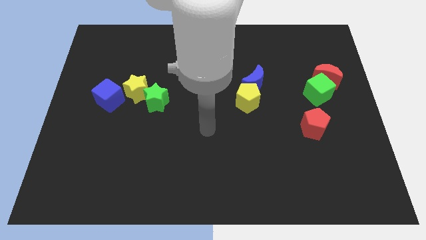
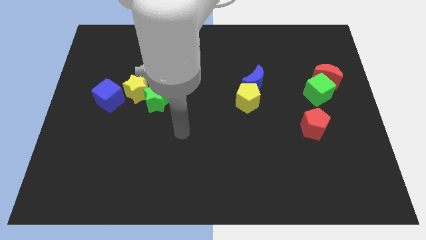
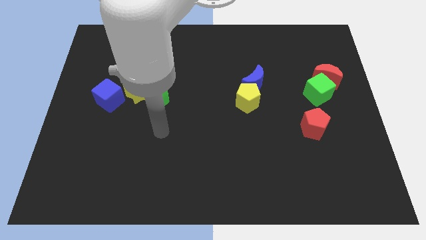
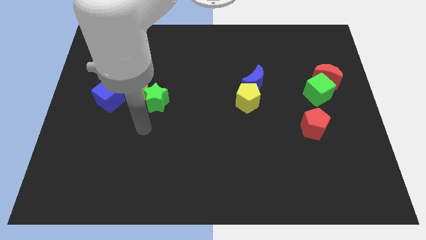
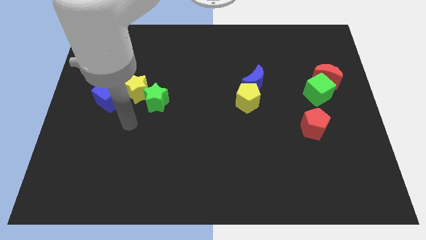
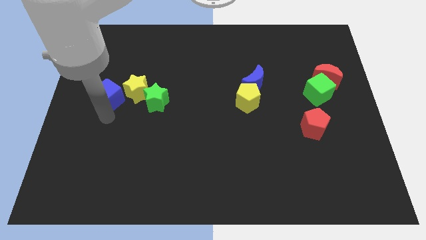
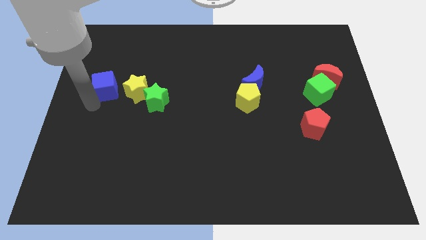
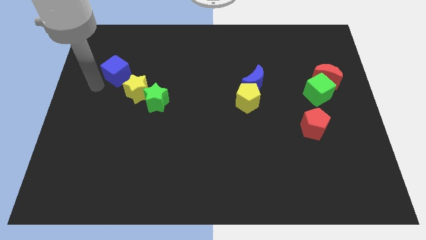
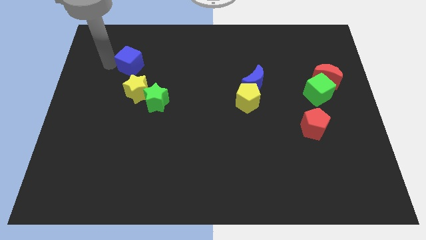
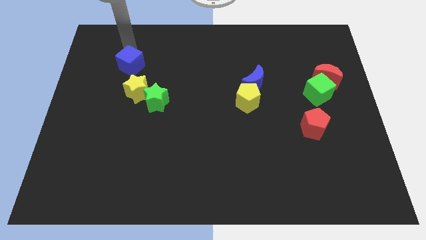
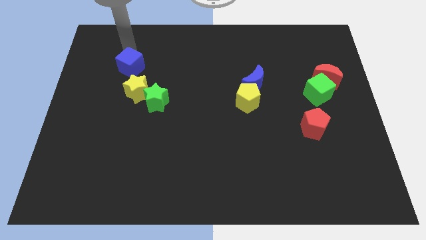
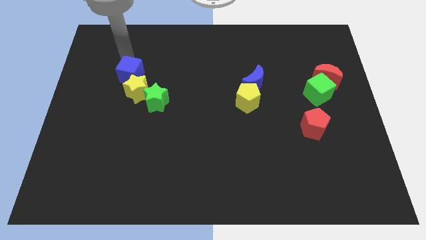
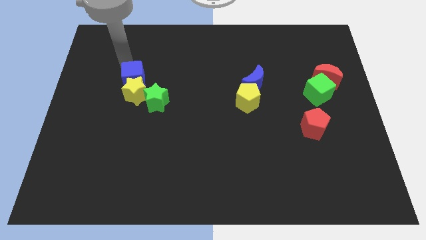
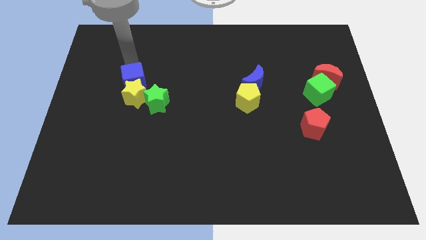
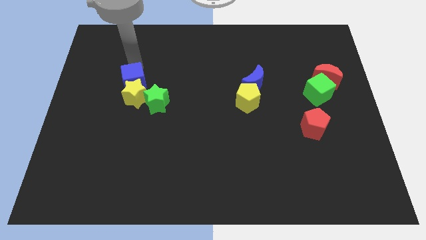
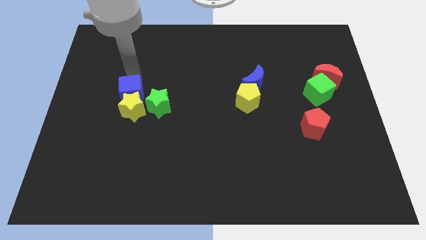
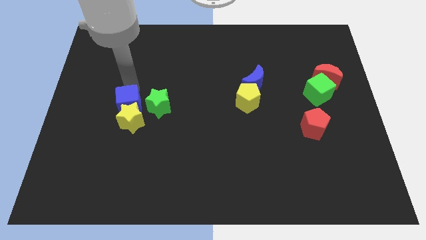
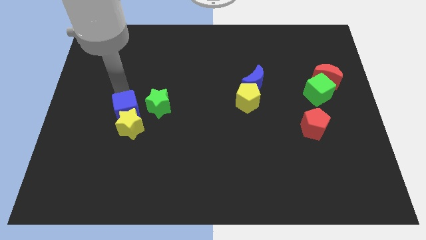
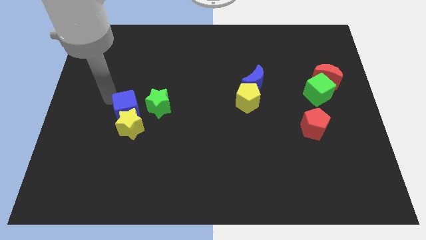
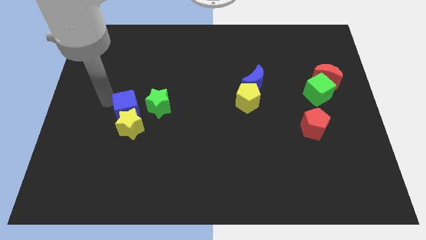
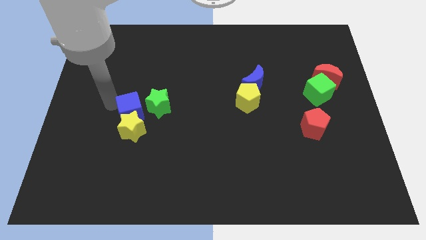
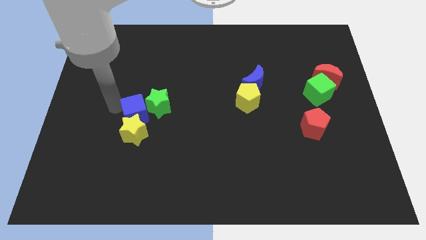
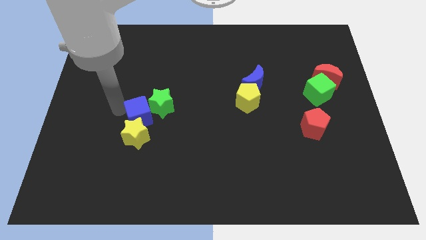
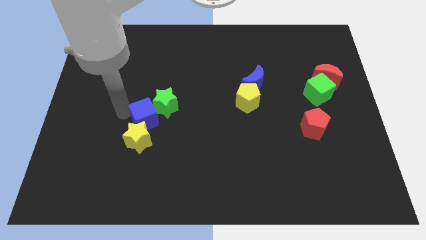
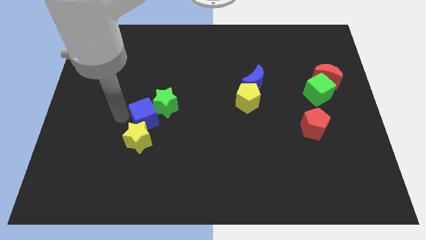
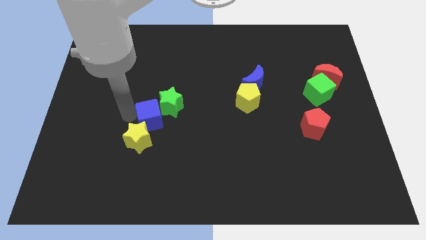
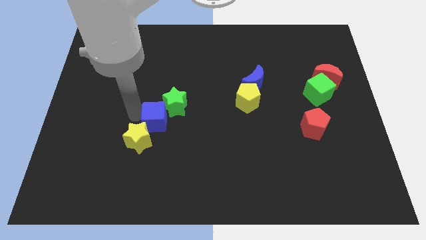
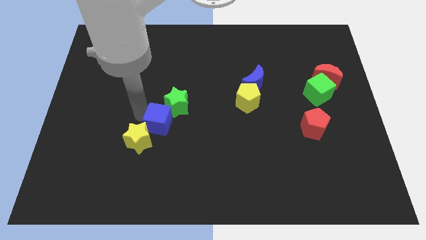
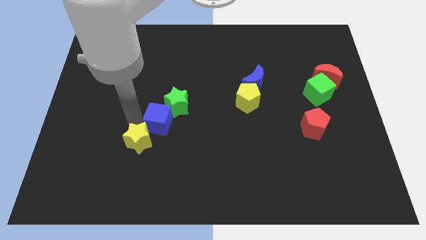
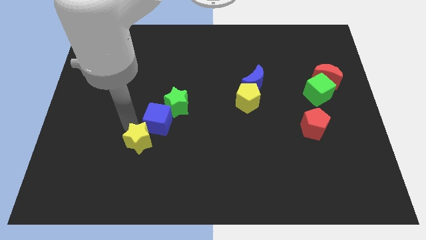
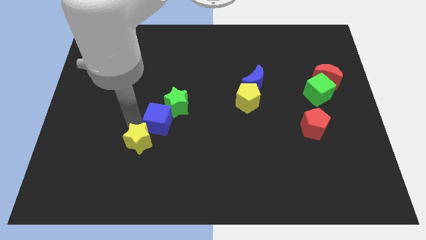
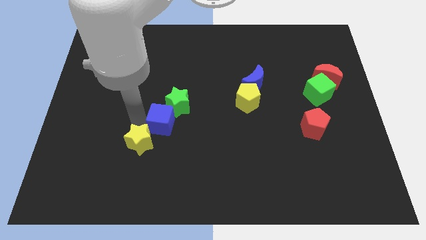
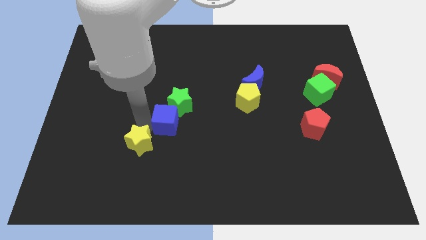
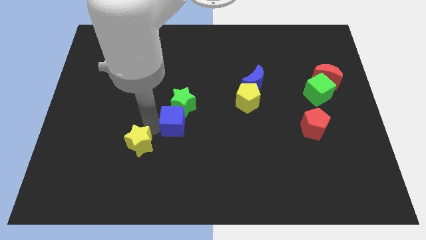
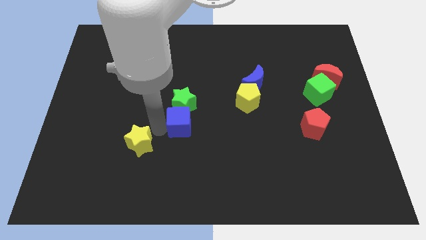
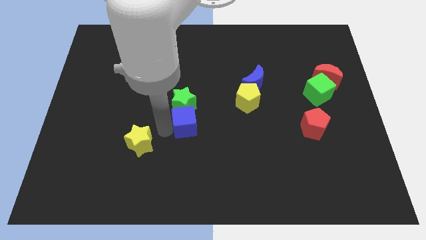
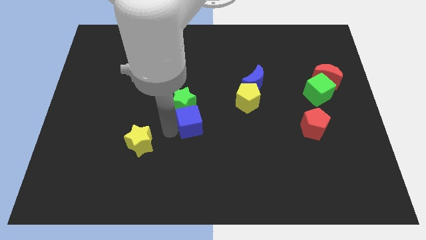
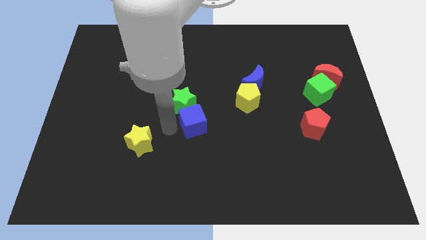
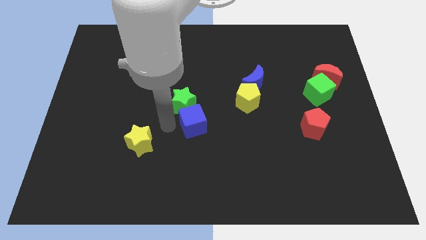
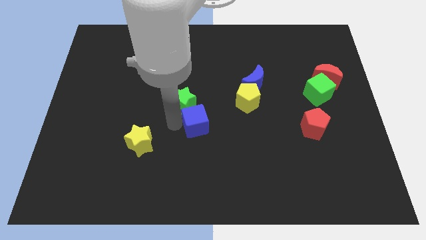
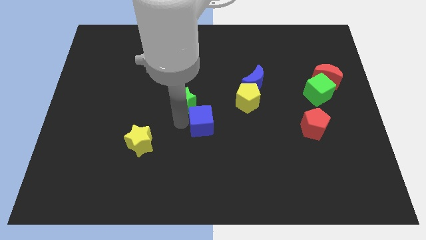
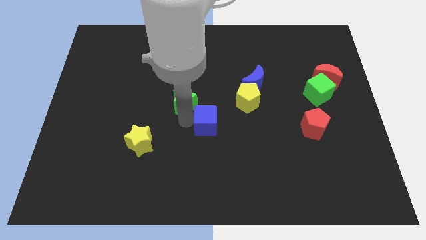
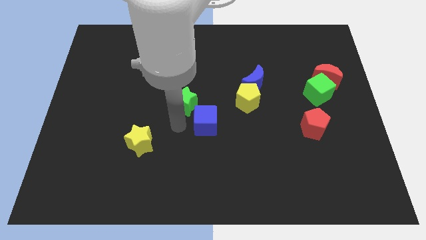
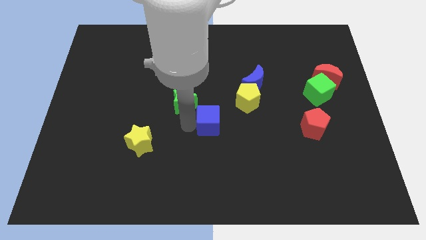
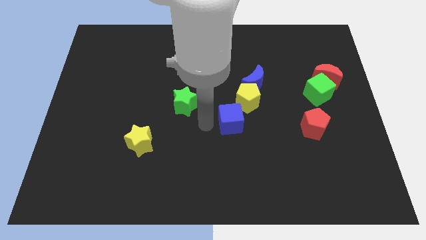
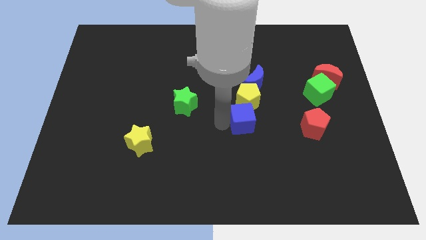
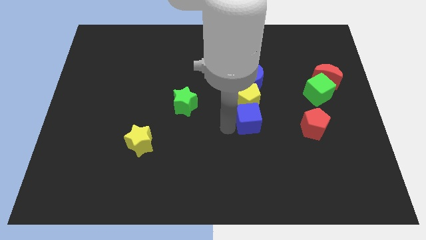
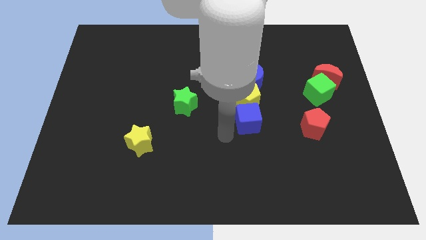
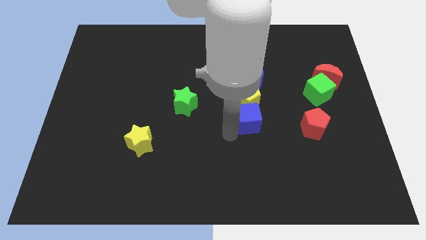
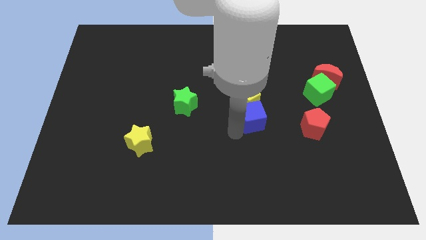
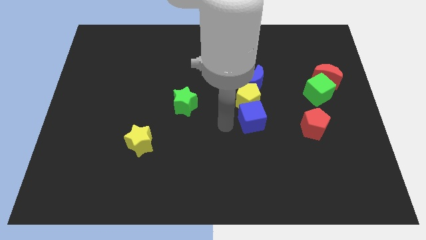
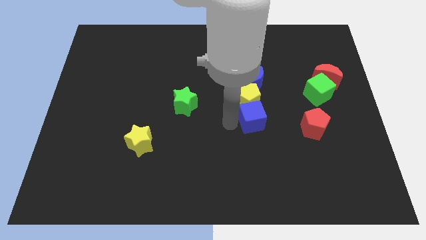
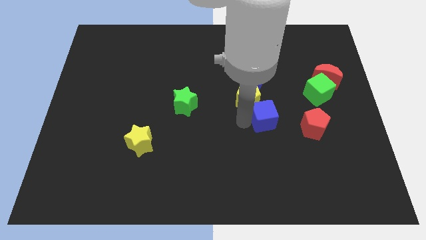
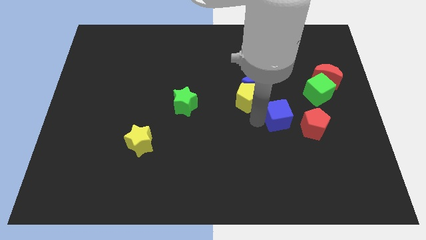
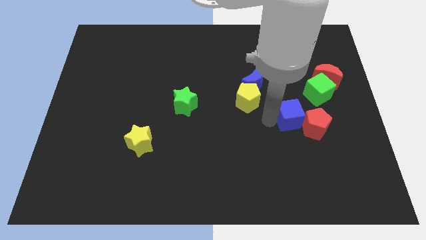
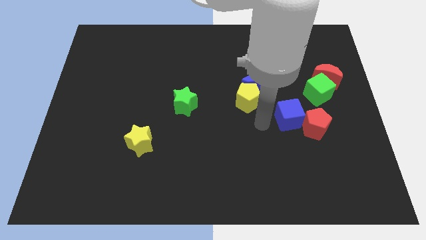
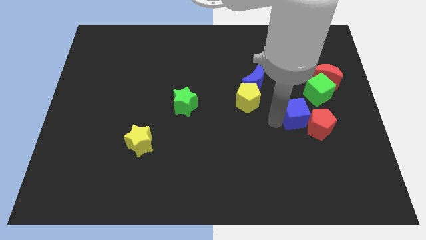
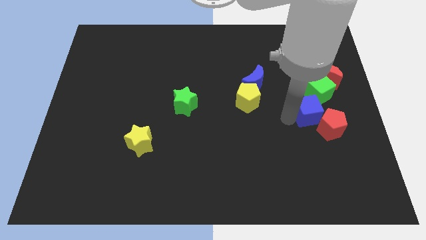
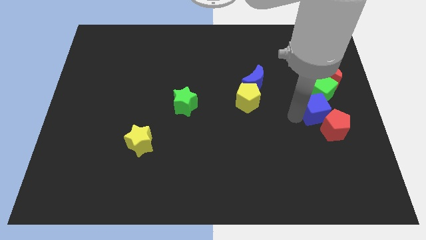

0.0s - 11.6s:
move the blue cube to the bottom side of the red moon

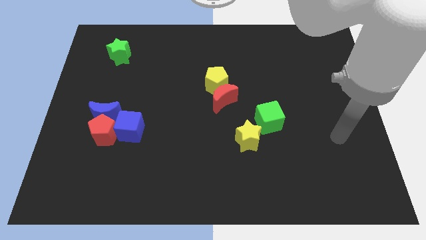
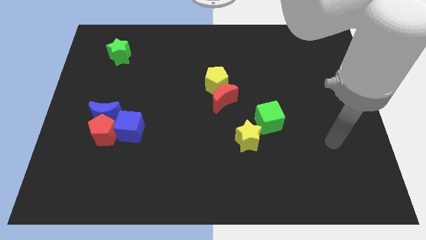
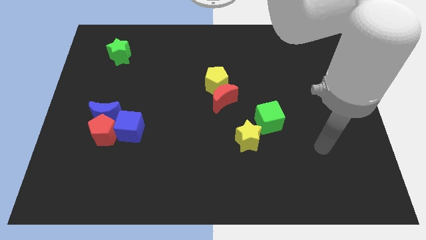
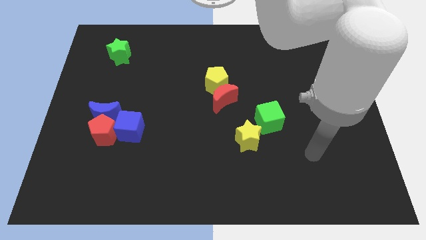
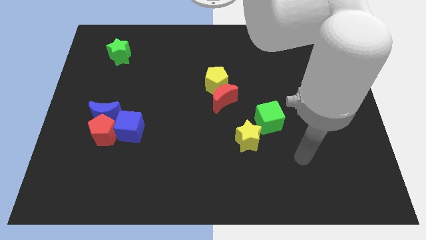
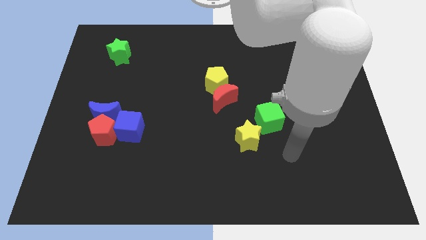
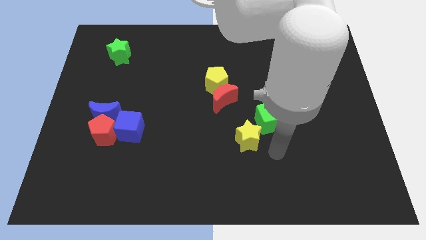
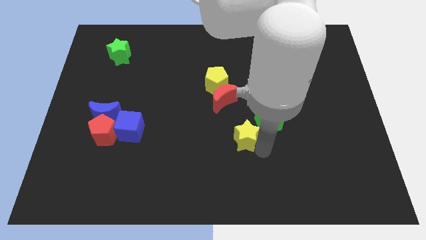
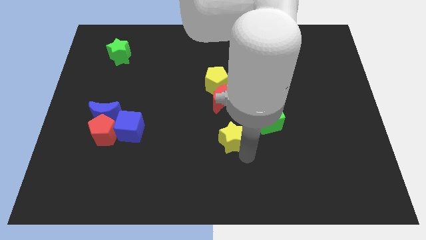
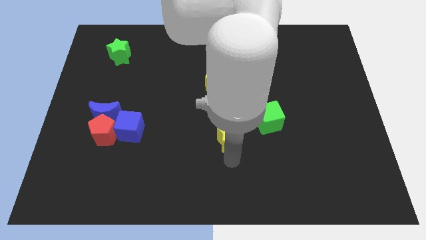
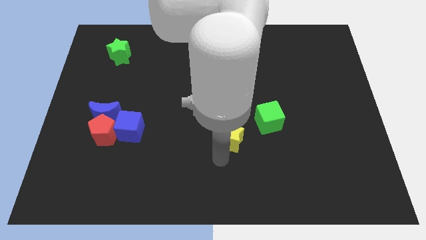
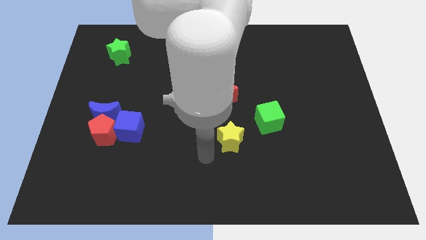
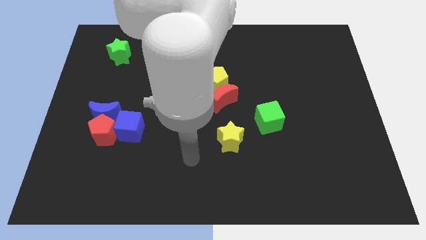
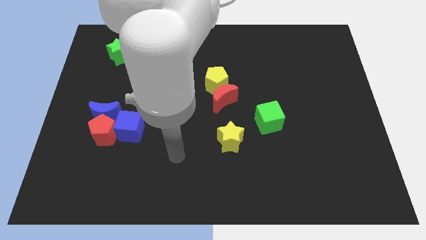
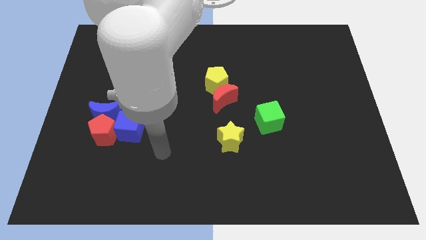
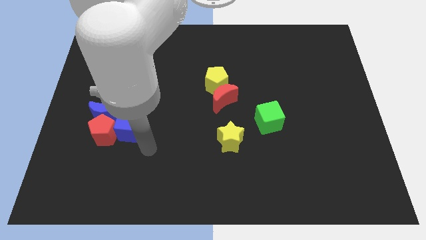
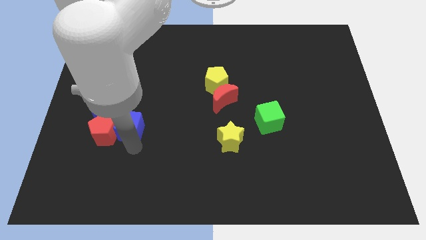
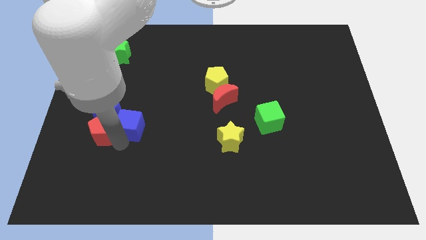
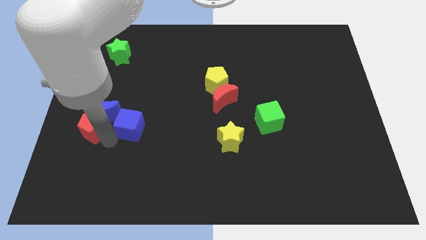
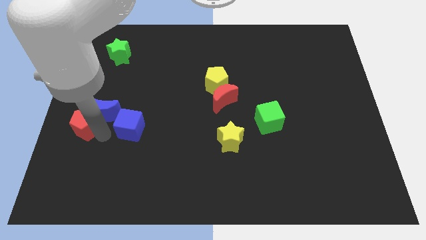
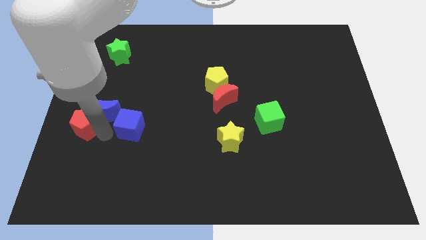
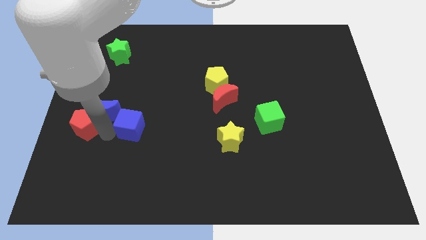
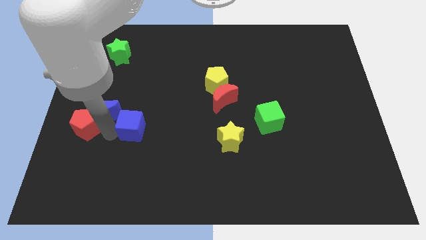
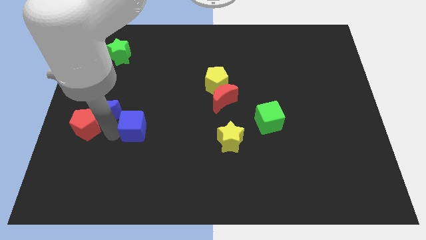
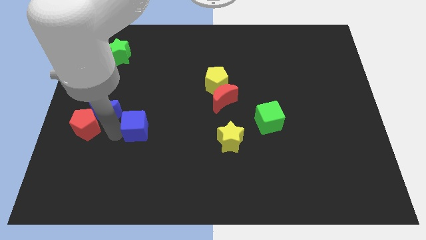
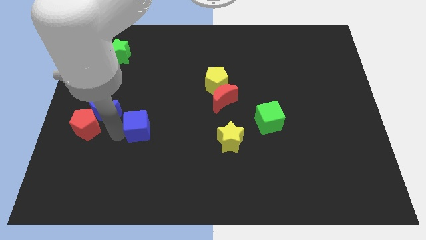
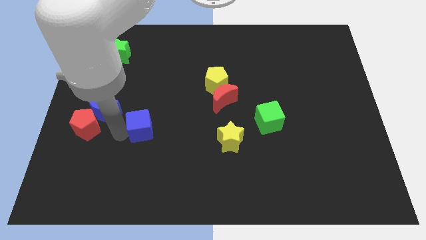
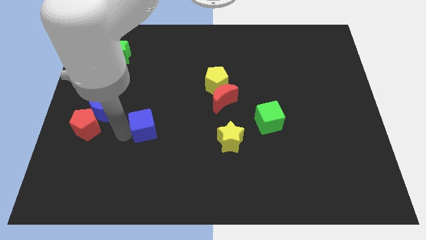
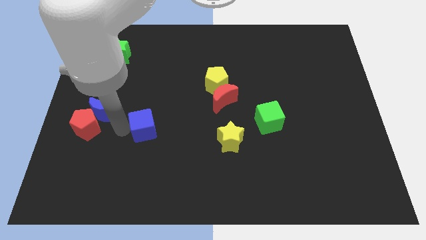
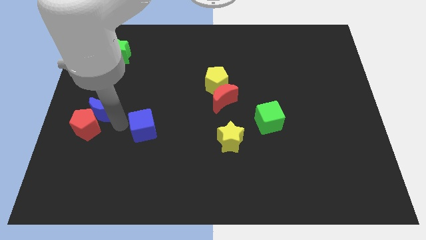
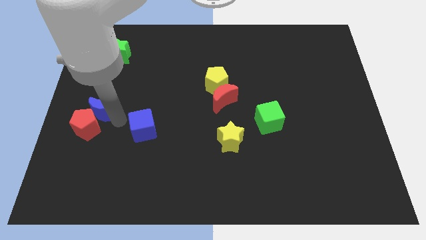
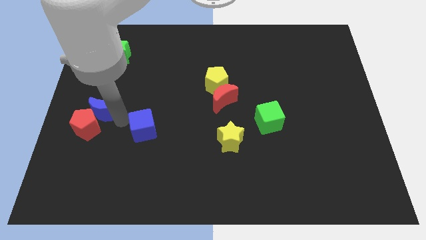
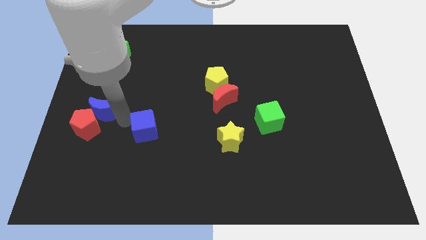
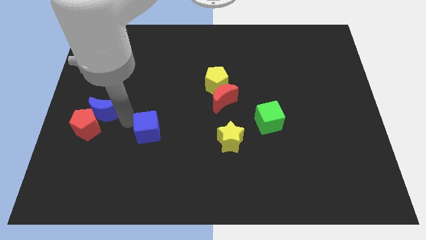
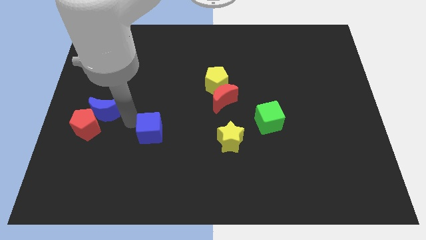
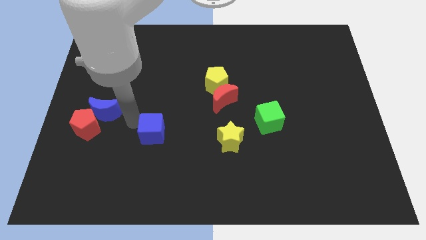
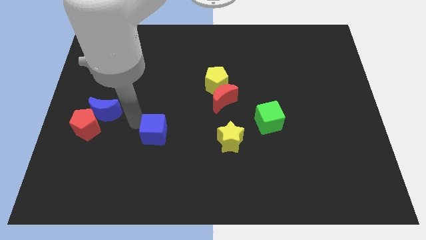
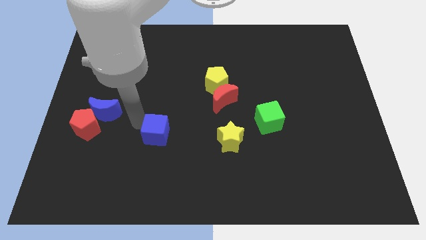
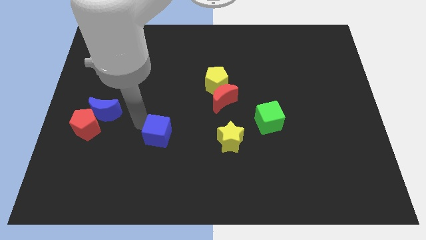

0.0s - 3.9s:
push the blue cube just left of the yellow star
